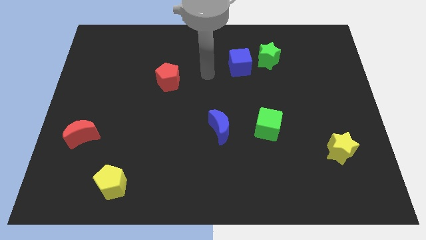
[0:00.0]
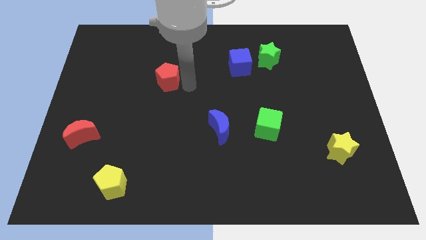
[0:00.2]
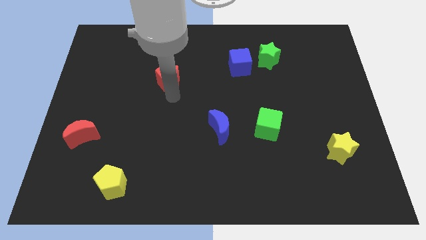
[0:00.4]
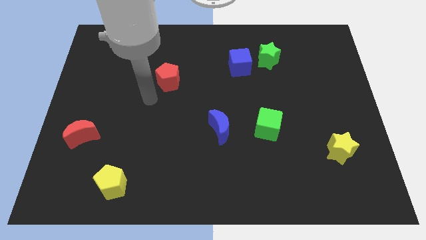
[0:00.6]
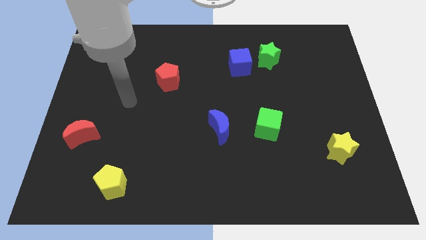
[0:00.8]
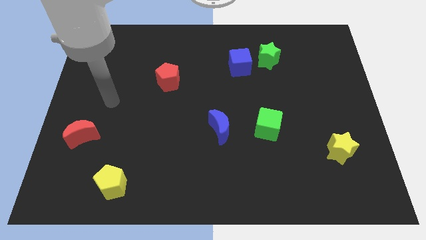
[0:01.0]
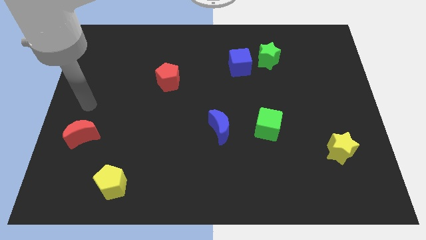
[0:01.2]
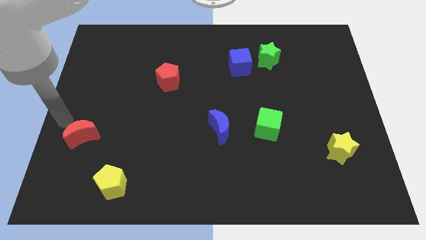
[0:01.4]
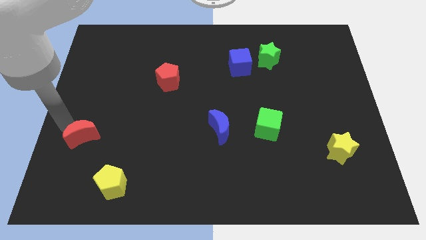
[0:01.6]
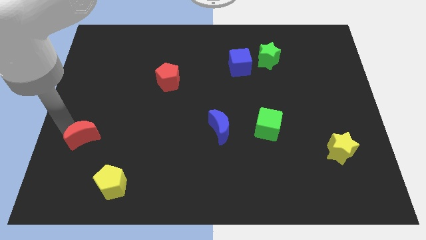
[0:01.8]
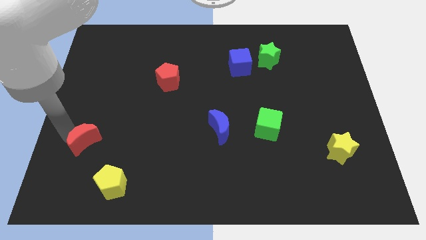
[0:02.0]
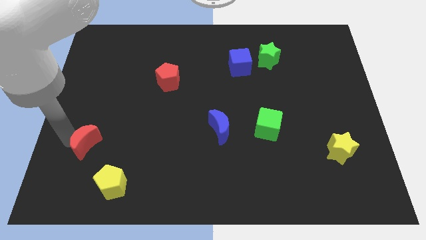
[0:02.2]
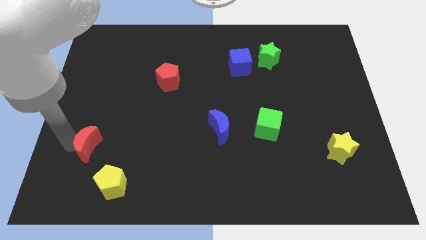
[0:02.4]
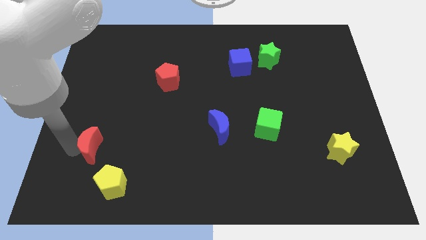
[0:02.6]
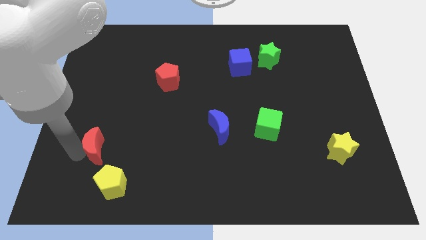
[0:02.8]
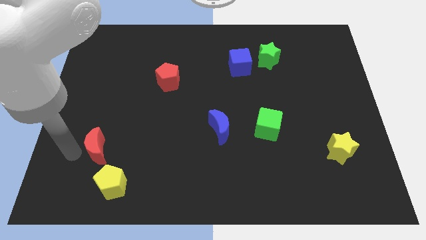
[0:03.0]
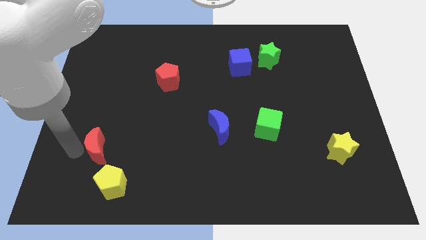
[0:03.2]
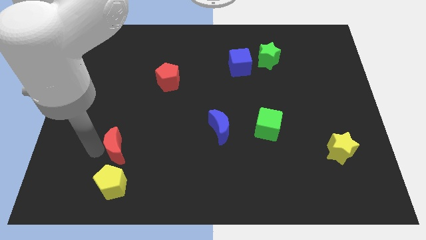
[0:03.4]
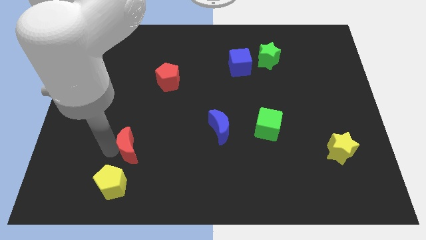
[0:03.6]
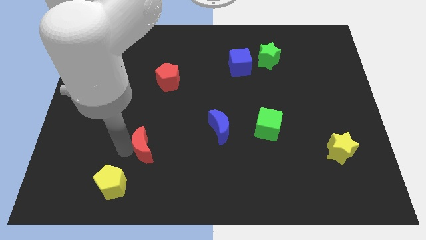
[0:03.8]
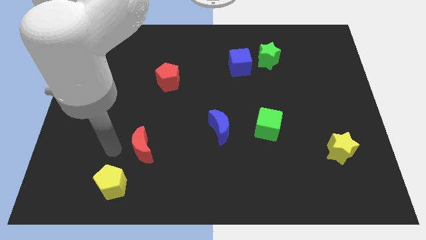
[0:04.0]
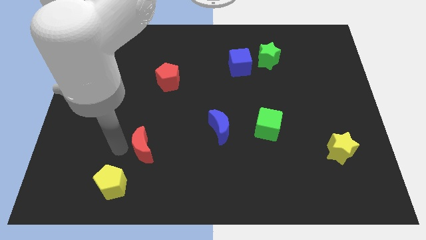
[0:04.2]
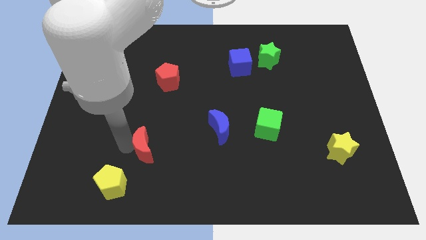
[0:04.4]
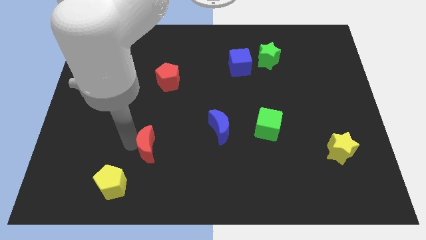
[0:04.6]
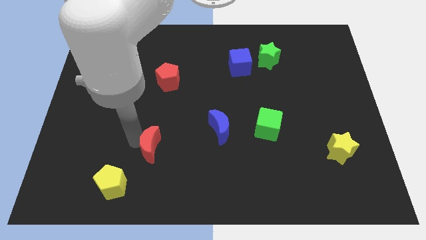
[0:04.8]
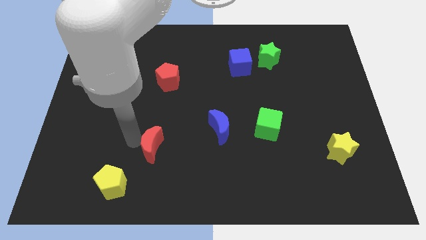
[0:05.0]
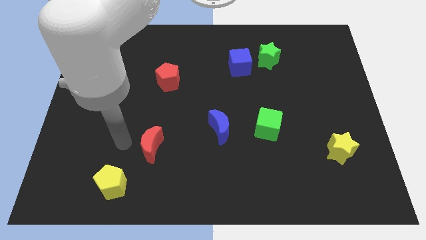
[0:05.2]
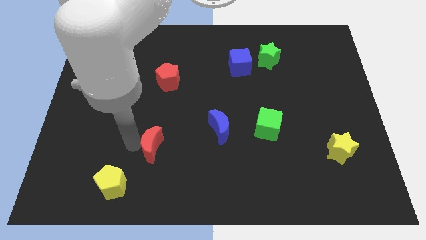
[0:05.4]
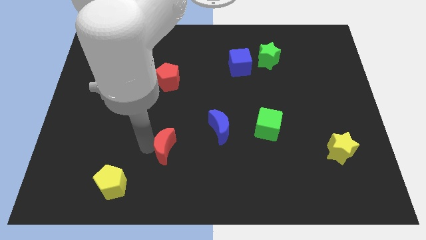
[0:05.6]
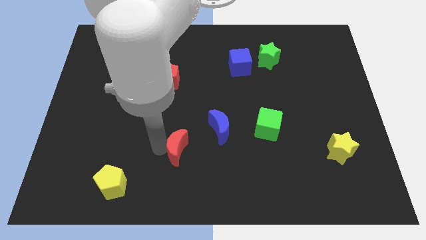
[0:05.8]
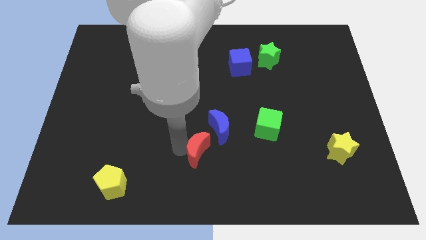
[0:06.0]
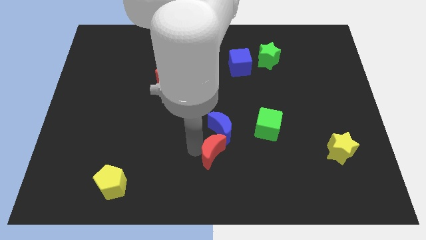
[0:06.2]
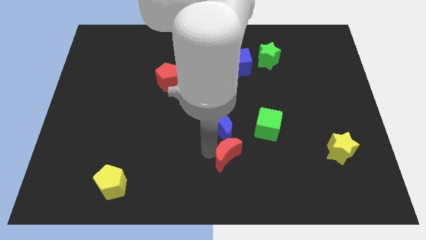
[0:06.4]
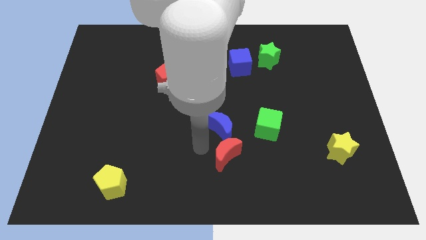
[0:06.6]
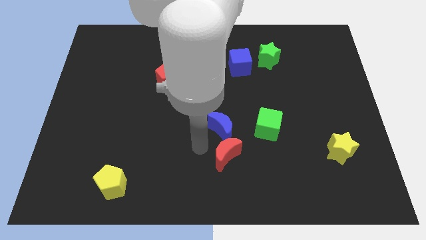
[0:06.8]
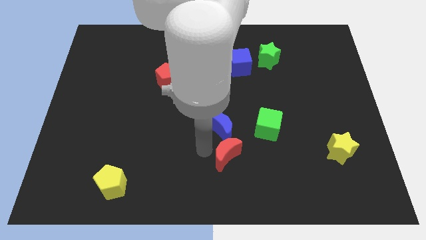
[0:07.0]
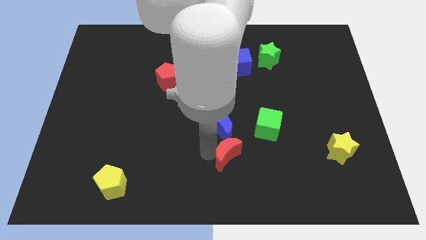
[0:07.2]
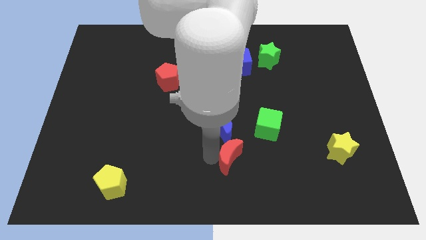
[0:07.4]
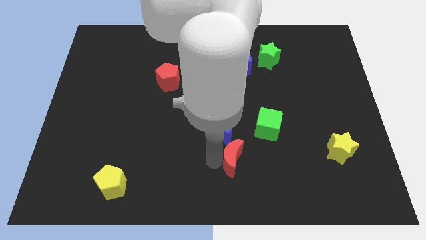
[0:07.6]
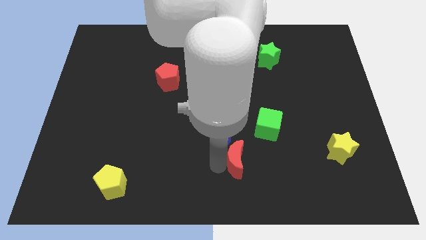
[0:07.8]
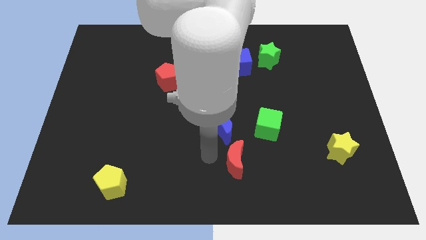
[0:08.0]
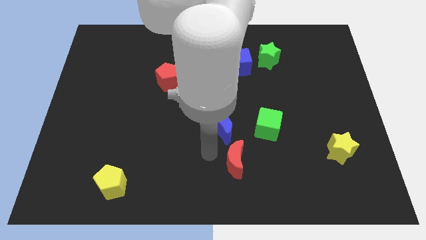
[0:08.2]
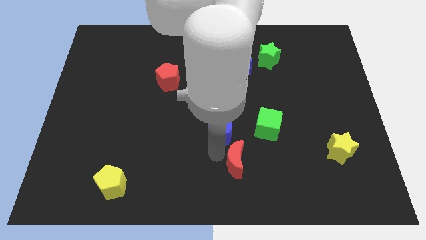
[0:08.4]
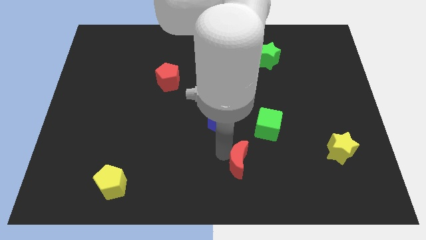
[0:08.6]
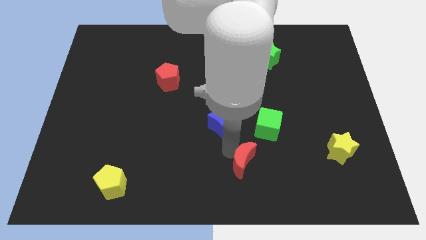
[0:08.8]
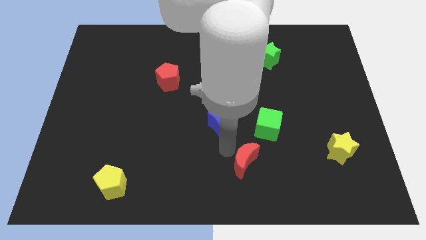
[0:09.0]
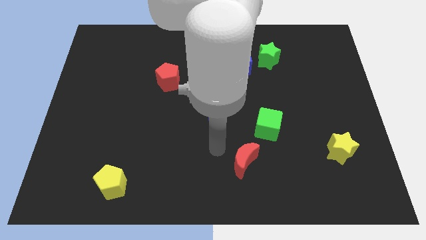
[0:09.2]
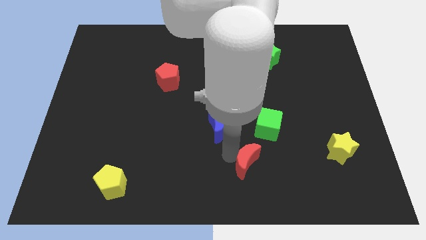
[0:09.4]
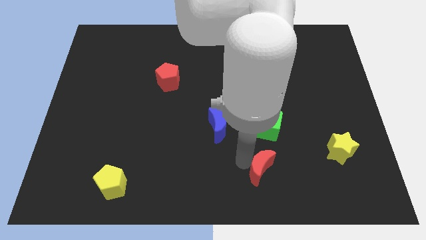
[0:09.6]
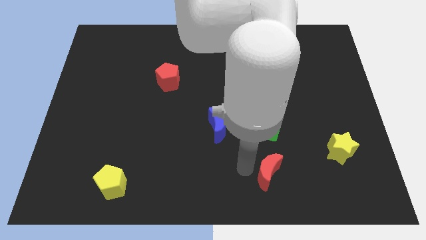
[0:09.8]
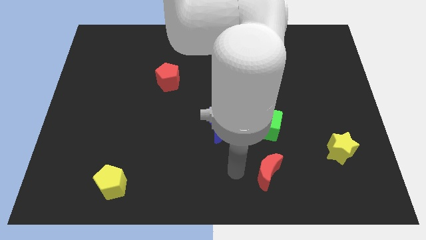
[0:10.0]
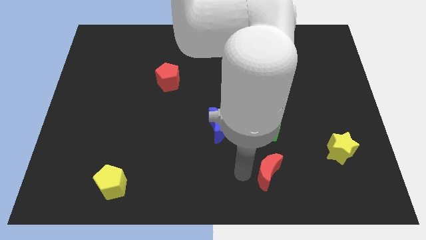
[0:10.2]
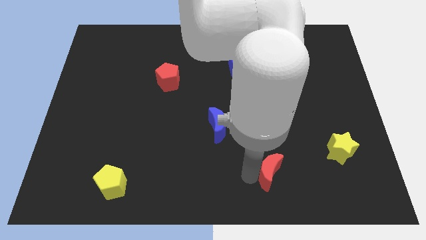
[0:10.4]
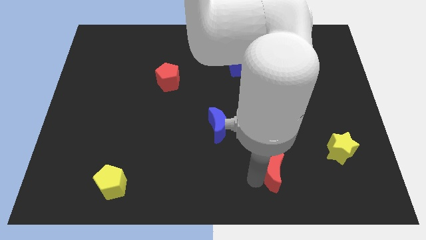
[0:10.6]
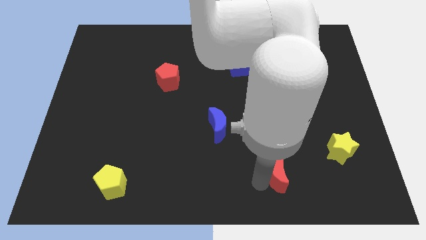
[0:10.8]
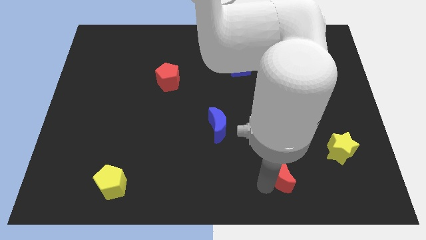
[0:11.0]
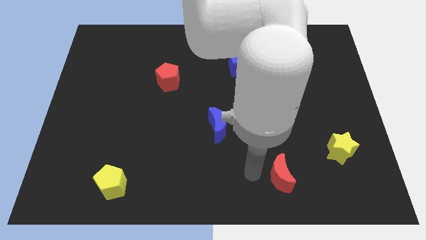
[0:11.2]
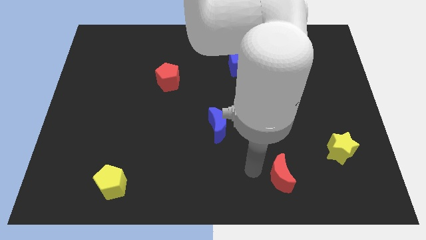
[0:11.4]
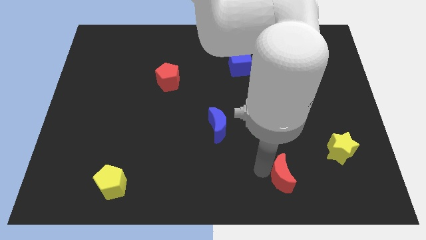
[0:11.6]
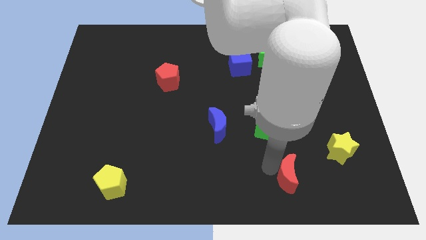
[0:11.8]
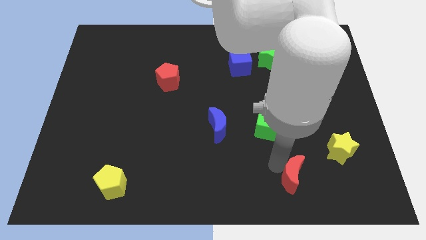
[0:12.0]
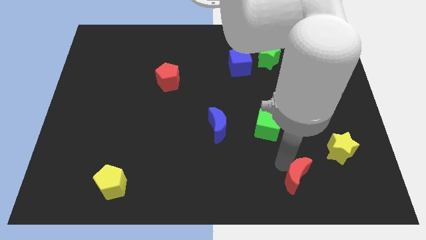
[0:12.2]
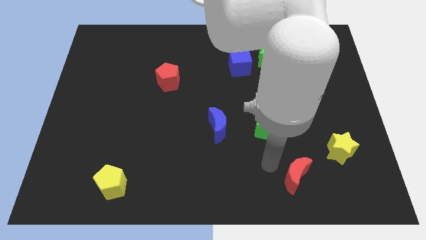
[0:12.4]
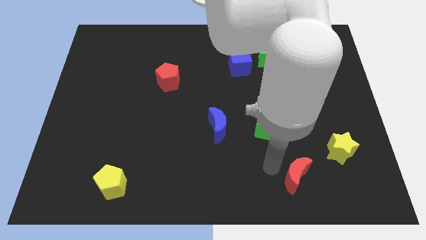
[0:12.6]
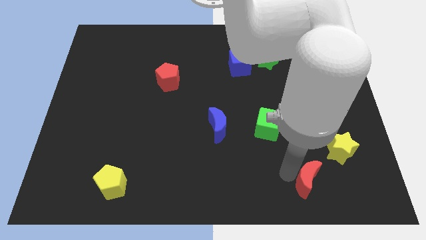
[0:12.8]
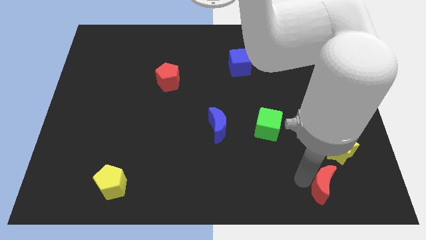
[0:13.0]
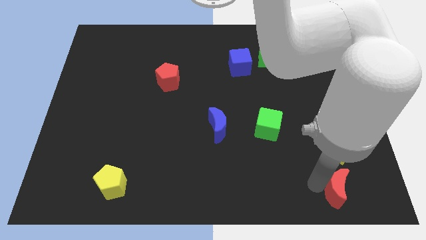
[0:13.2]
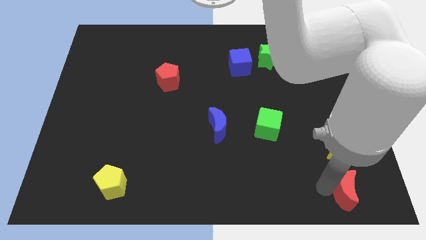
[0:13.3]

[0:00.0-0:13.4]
move the red moon to the lower right corner
